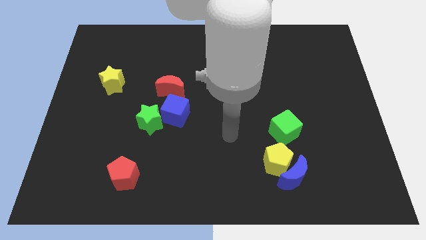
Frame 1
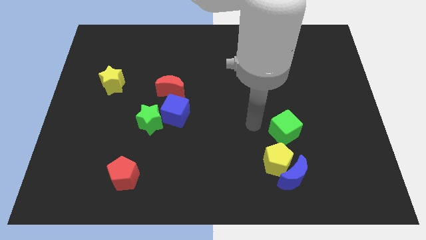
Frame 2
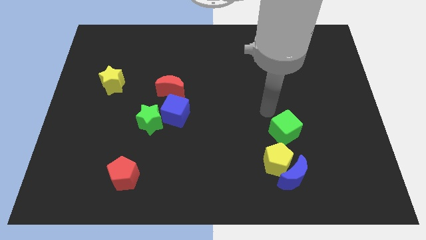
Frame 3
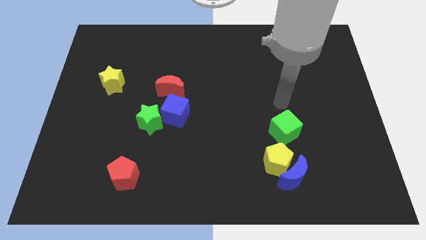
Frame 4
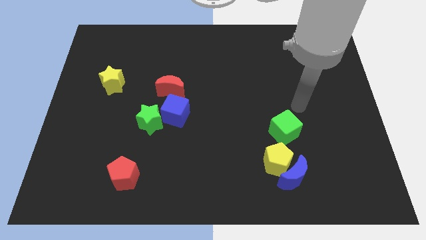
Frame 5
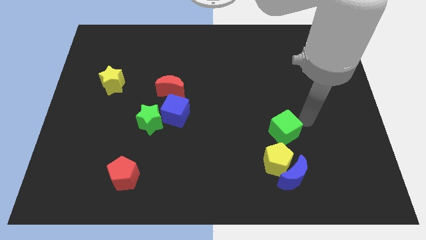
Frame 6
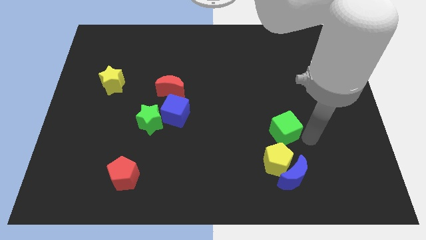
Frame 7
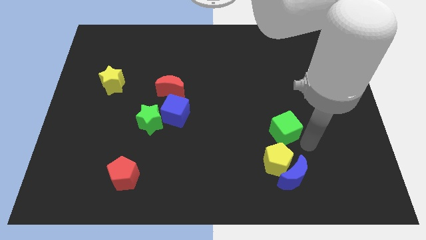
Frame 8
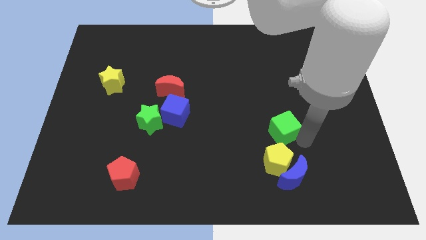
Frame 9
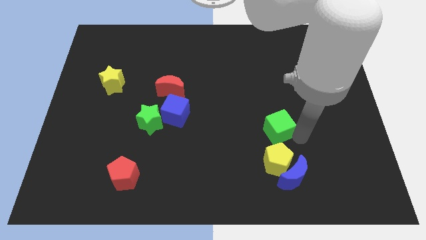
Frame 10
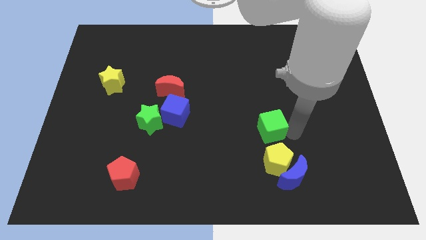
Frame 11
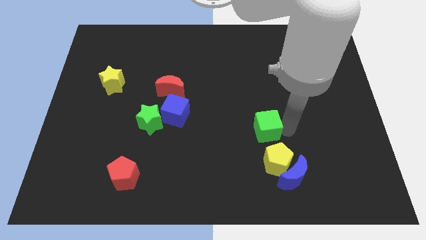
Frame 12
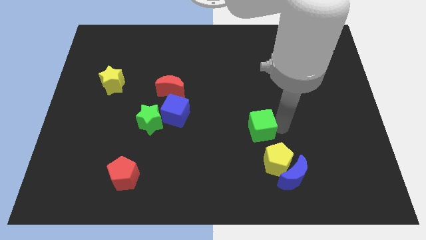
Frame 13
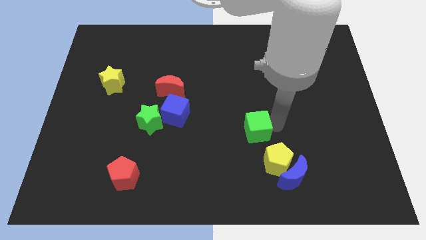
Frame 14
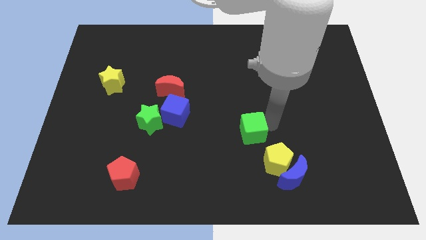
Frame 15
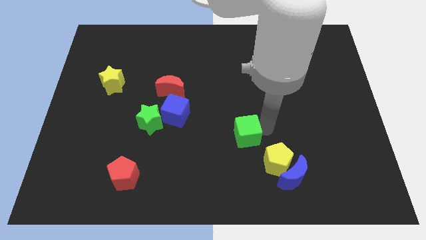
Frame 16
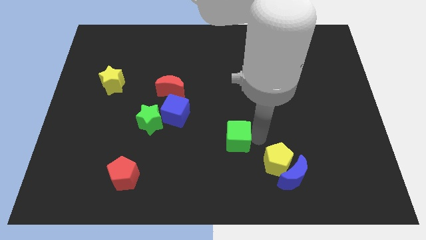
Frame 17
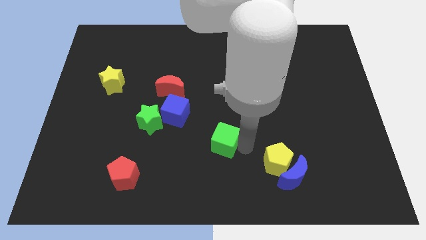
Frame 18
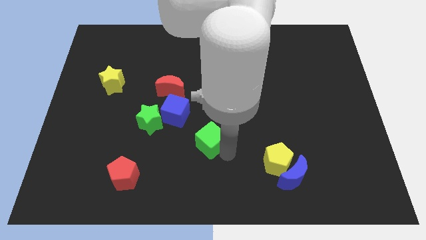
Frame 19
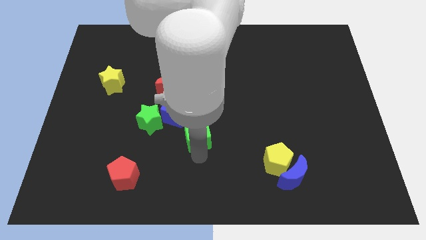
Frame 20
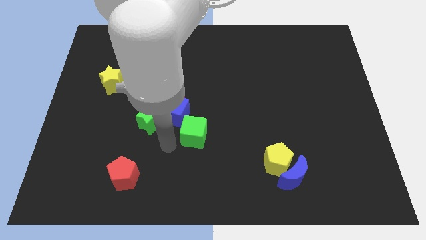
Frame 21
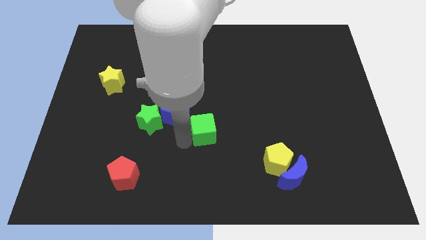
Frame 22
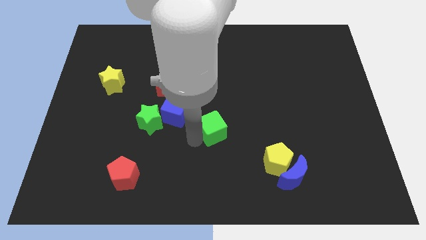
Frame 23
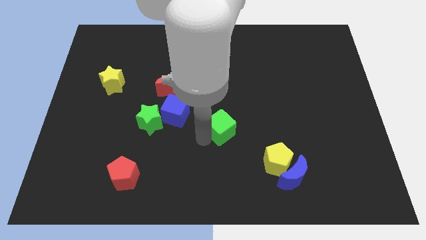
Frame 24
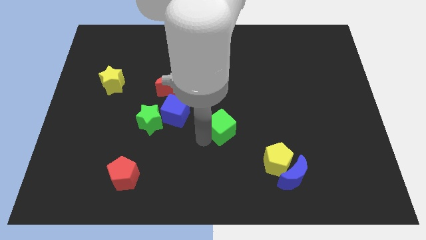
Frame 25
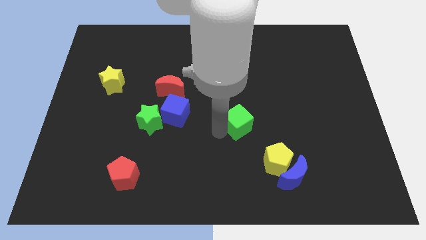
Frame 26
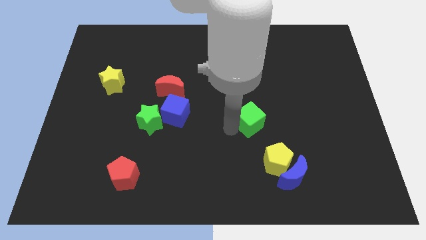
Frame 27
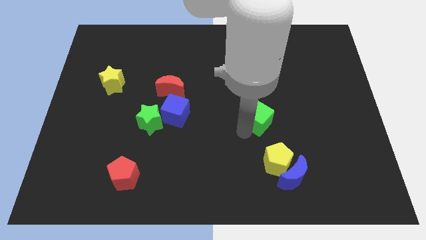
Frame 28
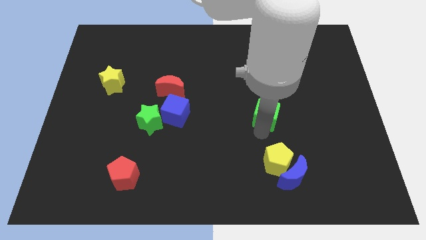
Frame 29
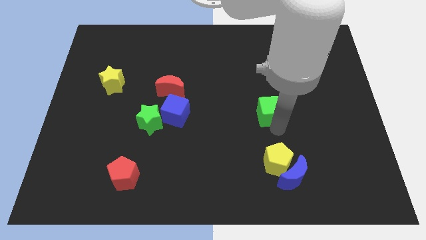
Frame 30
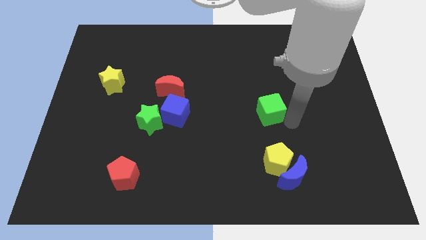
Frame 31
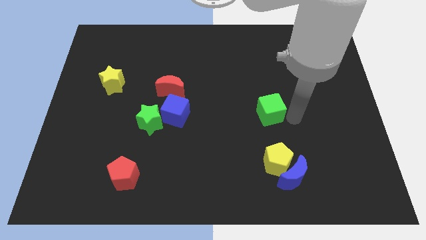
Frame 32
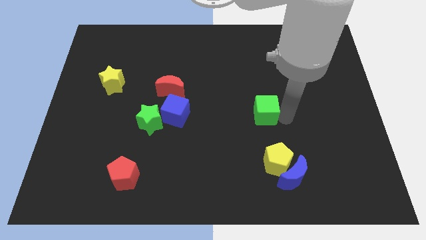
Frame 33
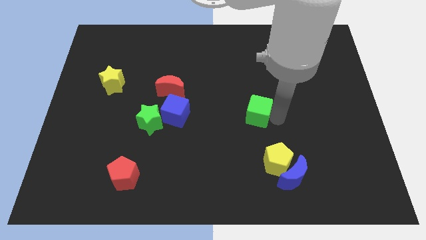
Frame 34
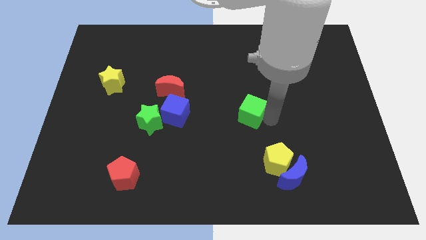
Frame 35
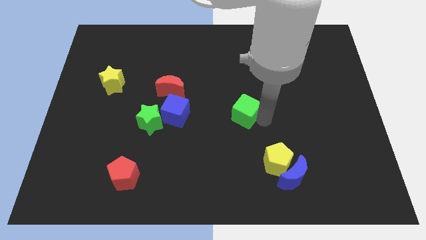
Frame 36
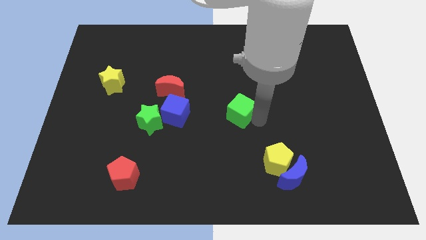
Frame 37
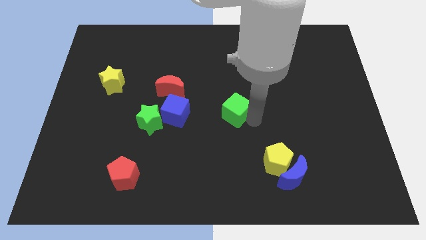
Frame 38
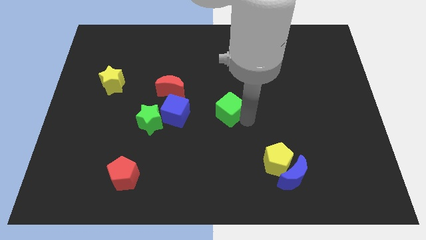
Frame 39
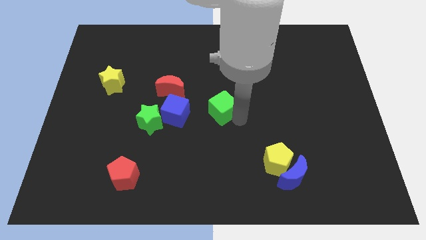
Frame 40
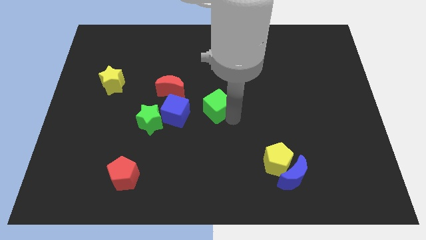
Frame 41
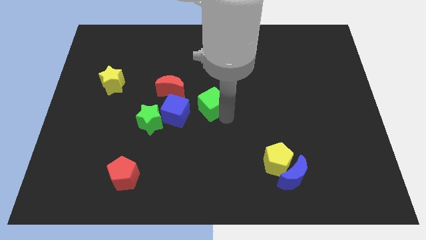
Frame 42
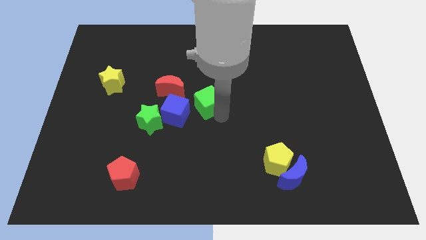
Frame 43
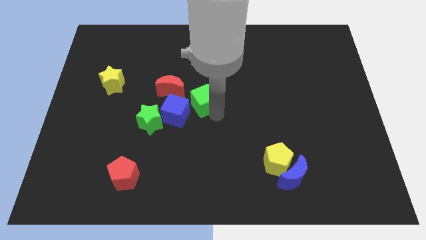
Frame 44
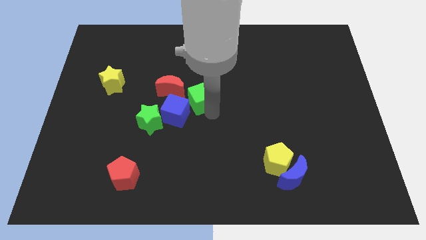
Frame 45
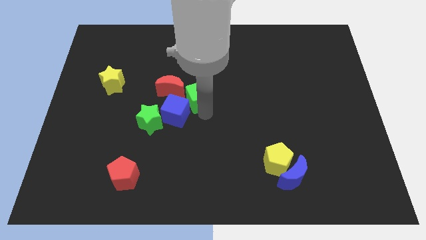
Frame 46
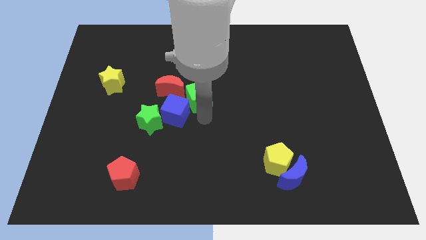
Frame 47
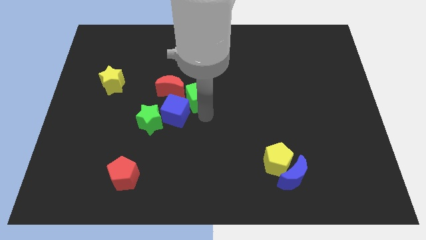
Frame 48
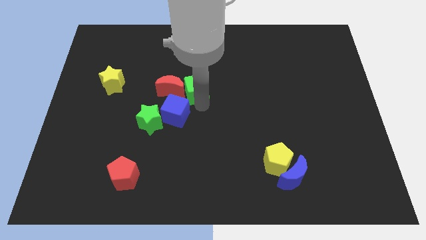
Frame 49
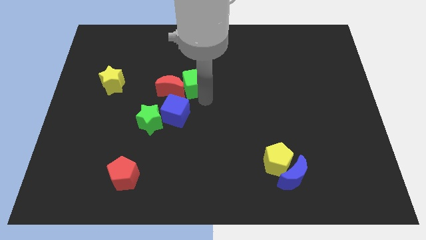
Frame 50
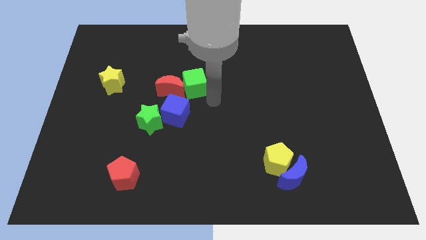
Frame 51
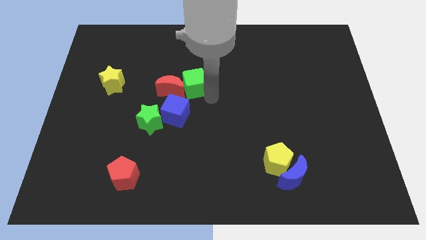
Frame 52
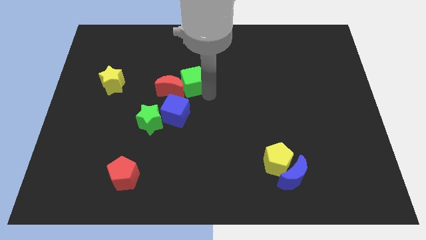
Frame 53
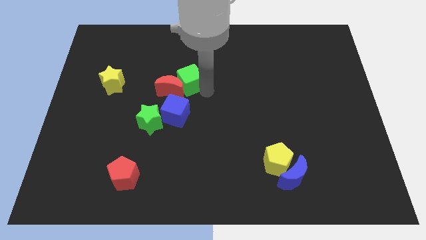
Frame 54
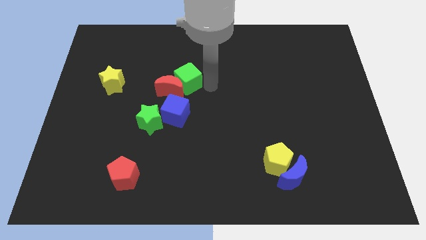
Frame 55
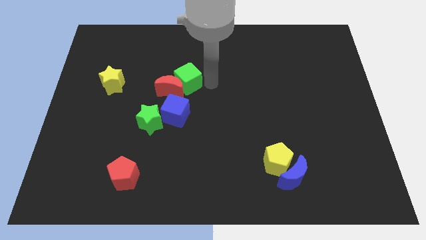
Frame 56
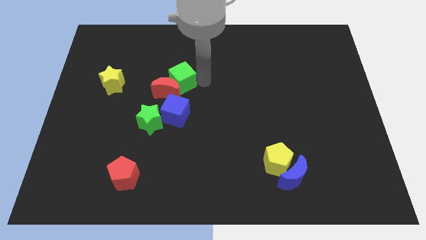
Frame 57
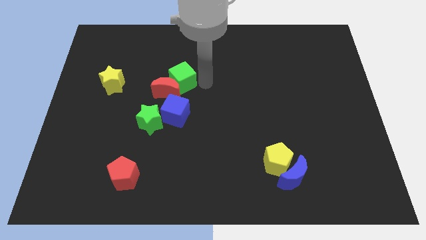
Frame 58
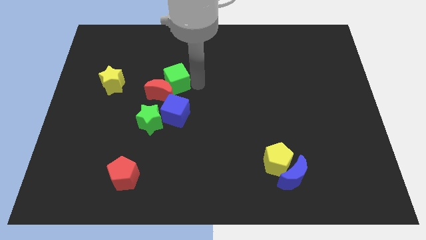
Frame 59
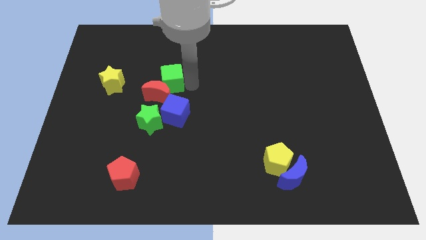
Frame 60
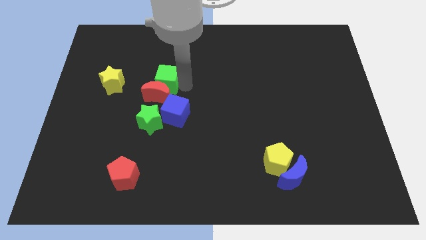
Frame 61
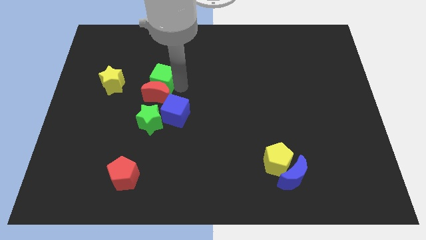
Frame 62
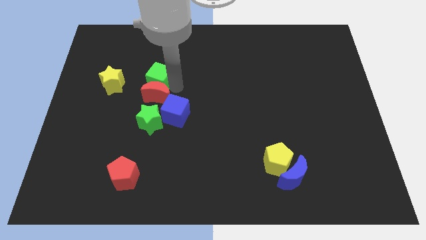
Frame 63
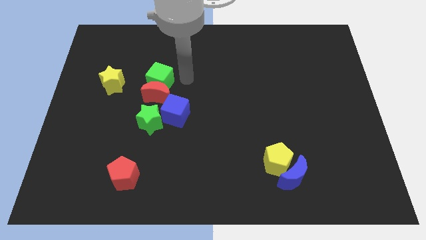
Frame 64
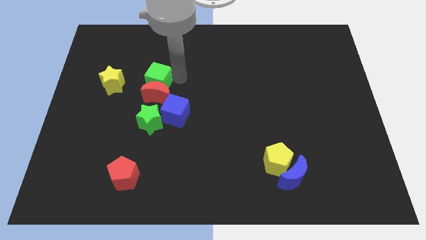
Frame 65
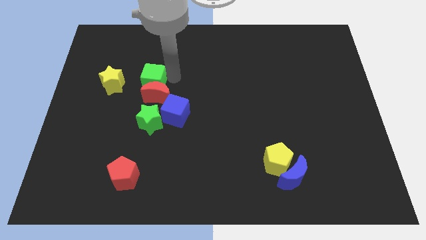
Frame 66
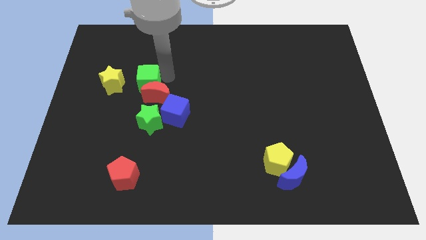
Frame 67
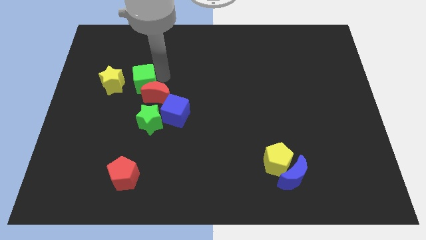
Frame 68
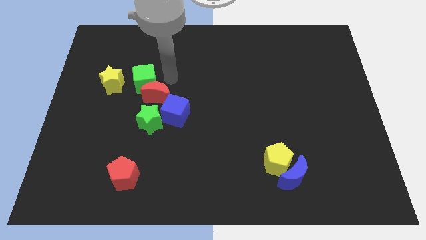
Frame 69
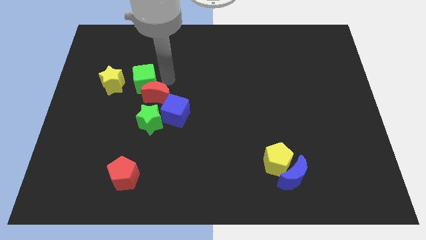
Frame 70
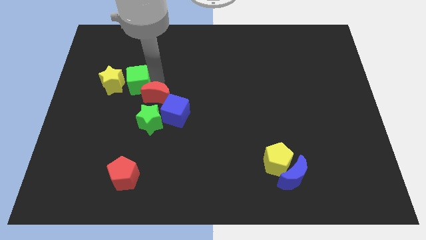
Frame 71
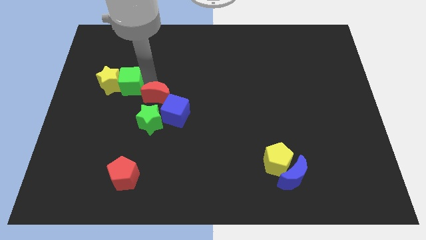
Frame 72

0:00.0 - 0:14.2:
put the green cube next to the yellow star
